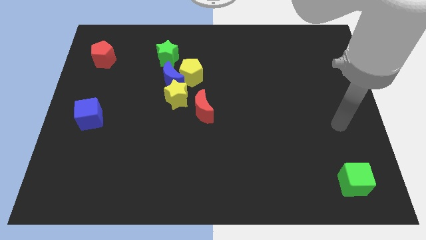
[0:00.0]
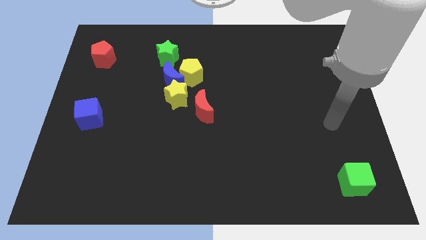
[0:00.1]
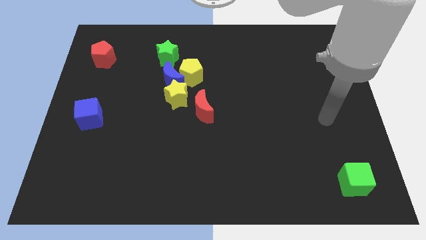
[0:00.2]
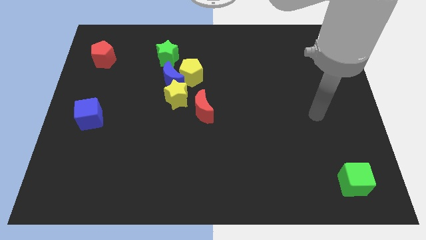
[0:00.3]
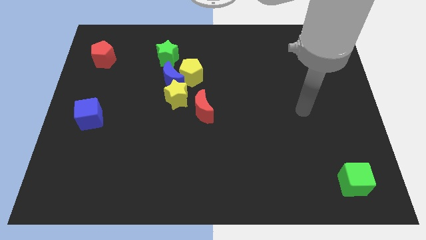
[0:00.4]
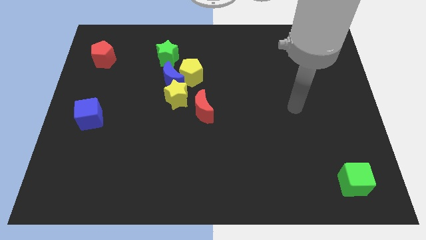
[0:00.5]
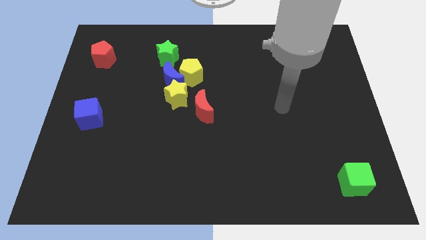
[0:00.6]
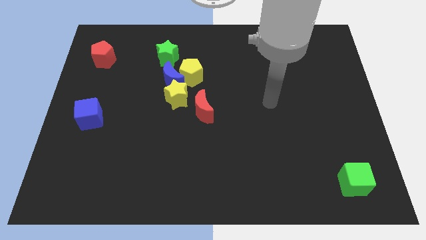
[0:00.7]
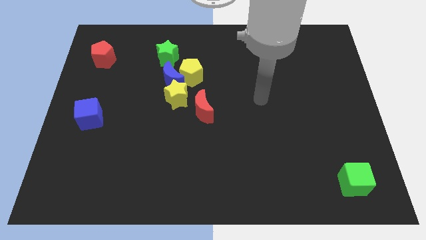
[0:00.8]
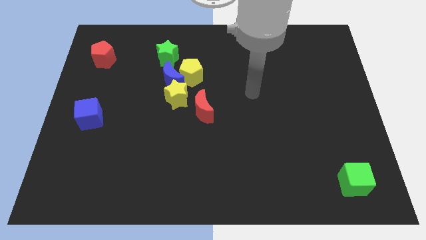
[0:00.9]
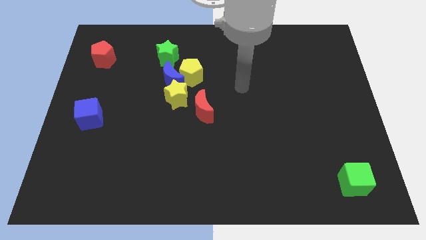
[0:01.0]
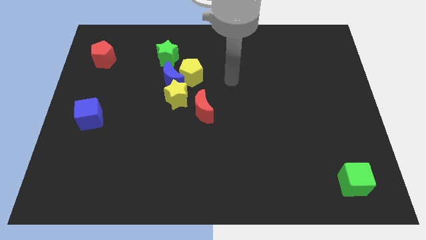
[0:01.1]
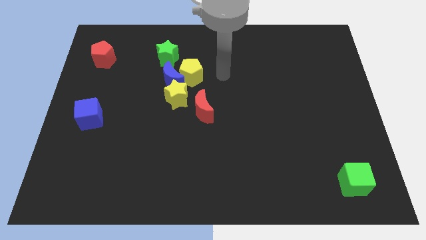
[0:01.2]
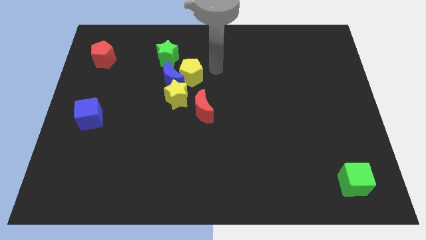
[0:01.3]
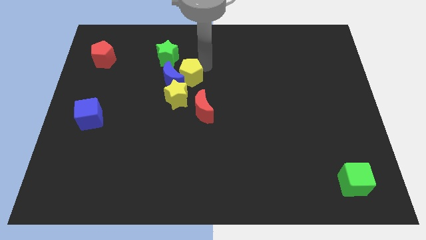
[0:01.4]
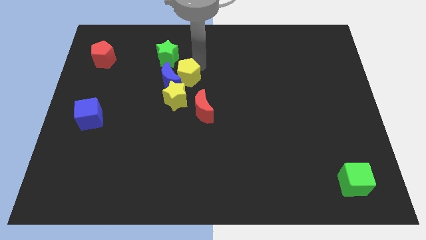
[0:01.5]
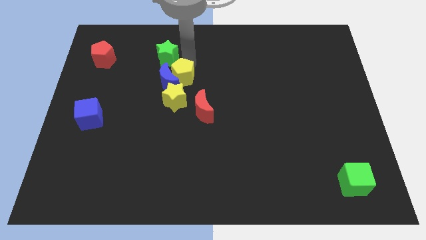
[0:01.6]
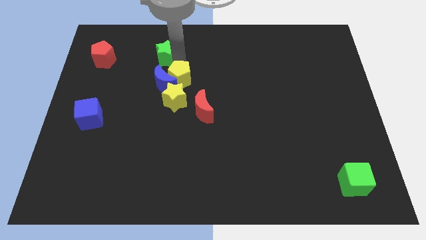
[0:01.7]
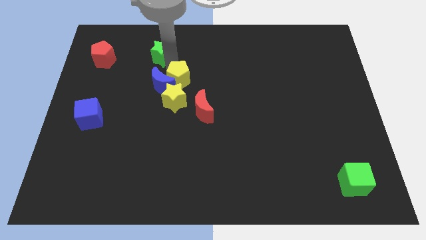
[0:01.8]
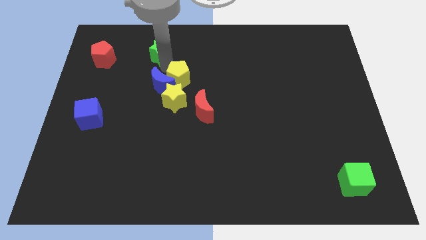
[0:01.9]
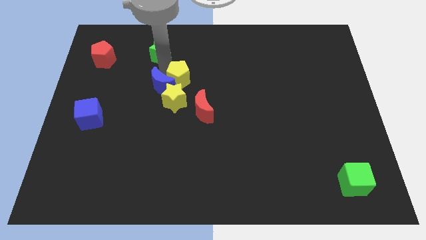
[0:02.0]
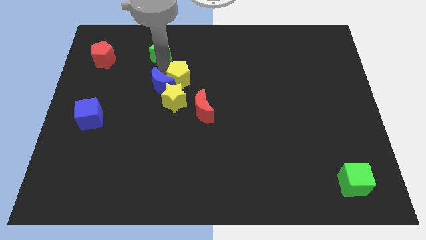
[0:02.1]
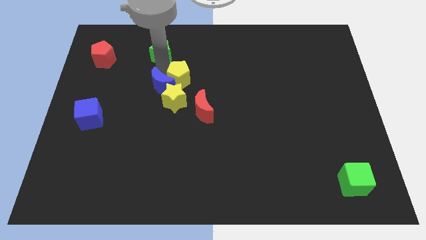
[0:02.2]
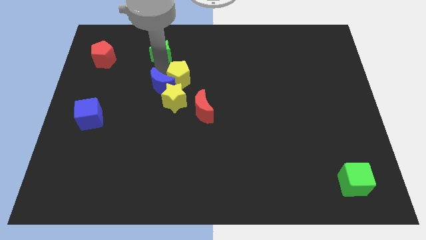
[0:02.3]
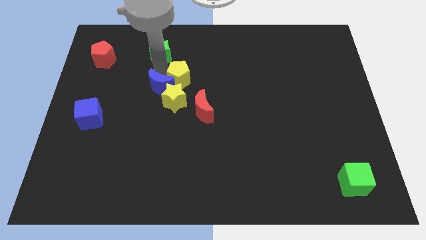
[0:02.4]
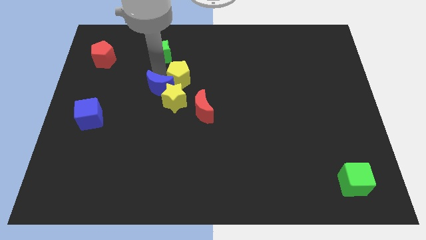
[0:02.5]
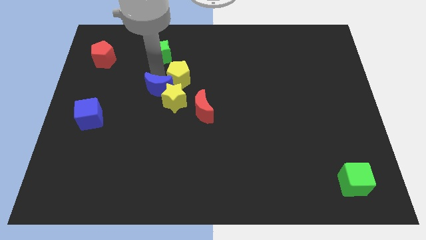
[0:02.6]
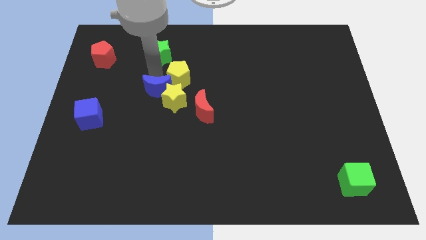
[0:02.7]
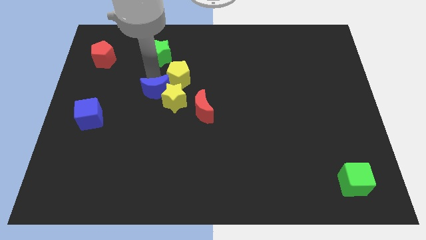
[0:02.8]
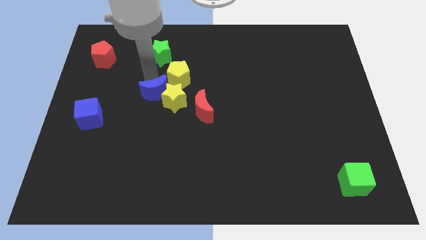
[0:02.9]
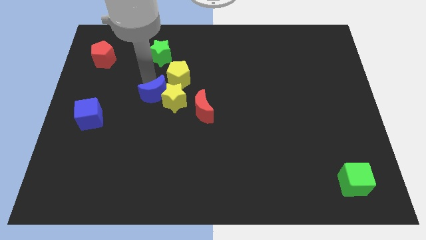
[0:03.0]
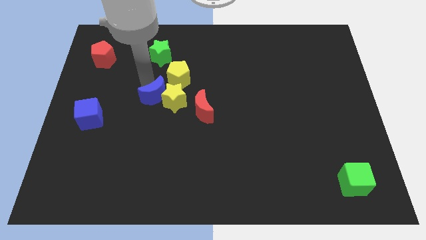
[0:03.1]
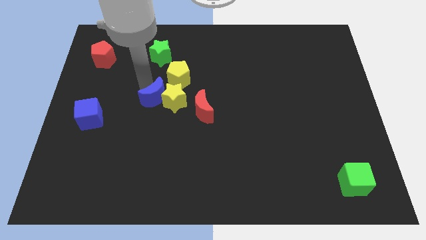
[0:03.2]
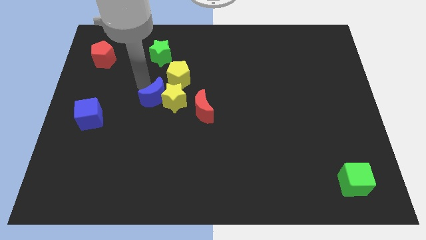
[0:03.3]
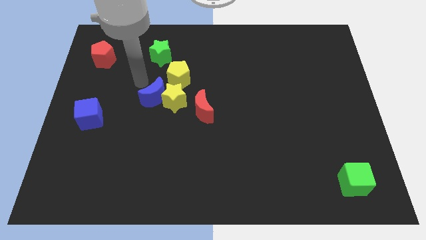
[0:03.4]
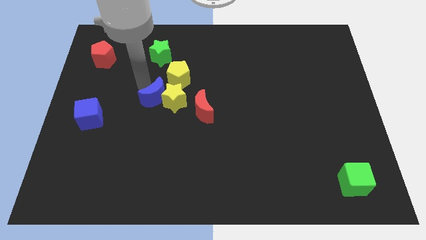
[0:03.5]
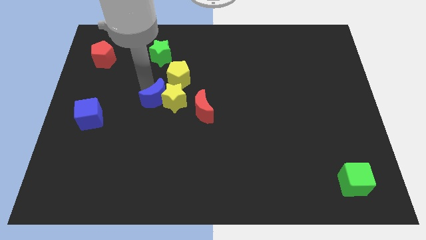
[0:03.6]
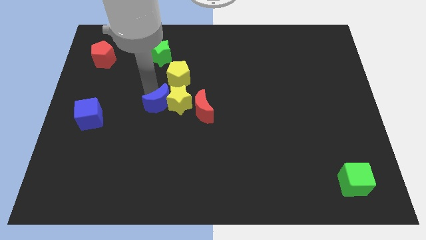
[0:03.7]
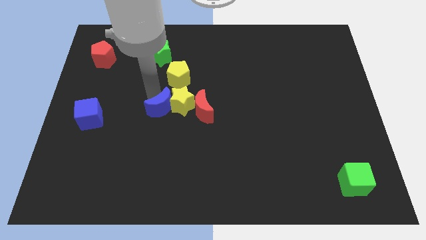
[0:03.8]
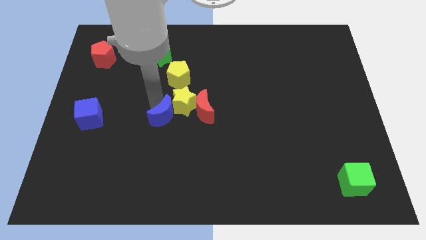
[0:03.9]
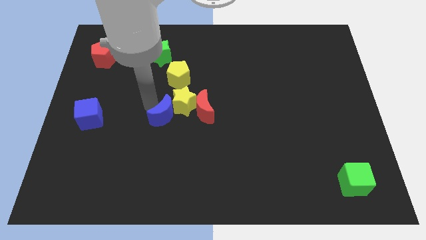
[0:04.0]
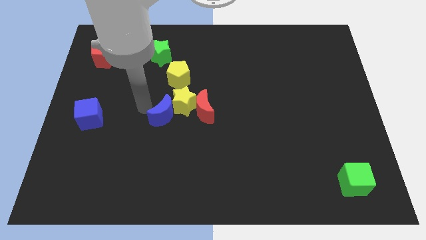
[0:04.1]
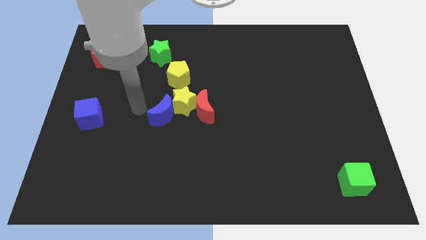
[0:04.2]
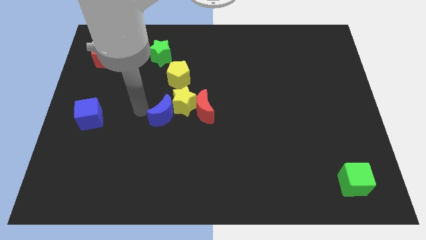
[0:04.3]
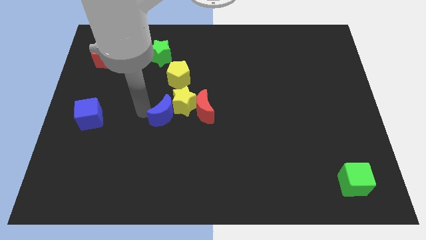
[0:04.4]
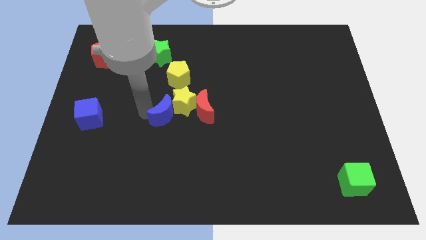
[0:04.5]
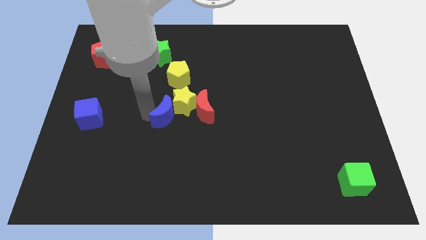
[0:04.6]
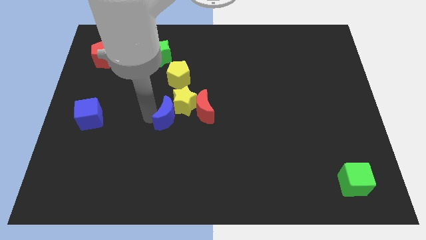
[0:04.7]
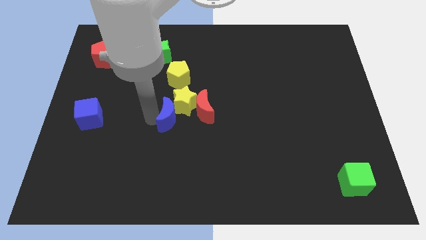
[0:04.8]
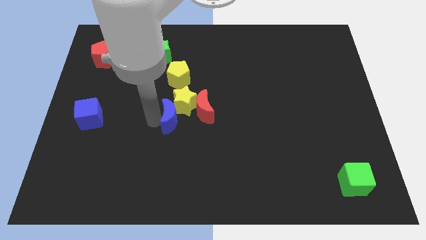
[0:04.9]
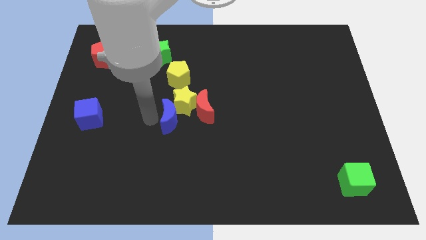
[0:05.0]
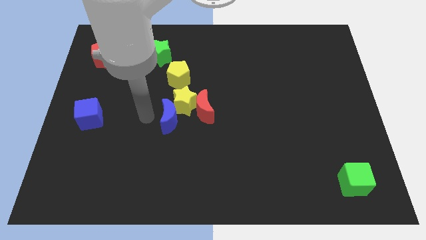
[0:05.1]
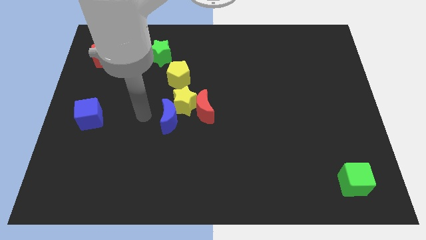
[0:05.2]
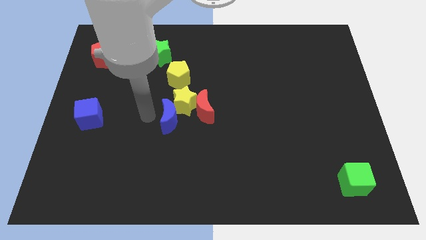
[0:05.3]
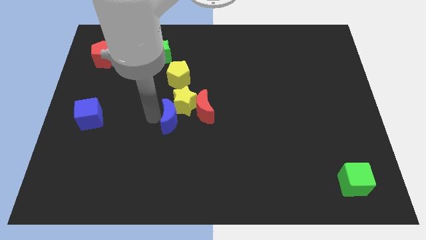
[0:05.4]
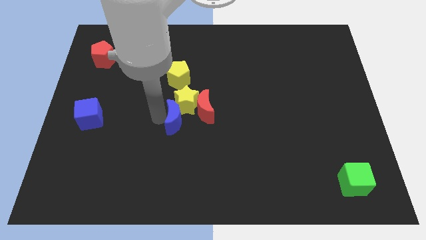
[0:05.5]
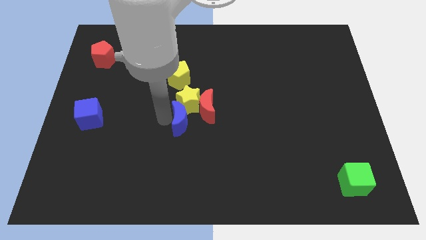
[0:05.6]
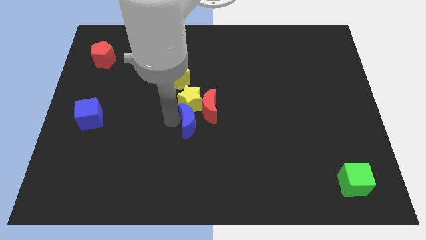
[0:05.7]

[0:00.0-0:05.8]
move the blue moon to the bottom right of the yellow star

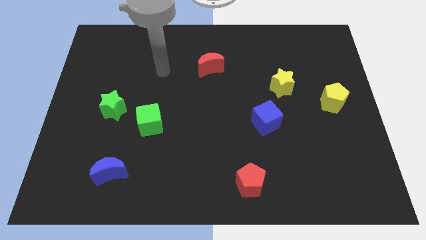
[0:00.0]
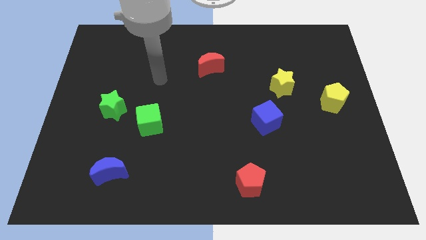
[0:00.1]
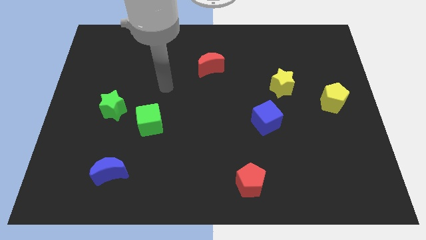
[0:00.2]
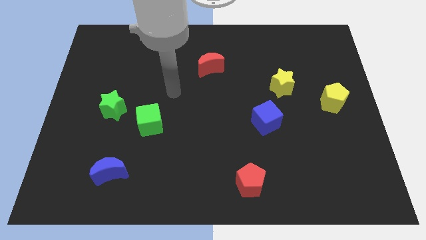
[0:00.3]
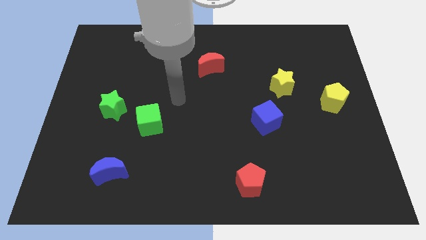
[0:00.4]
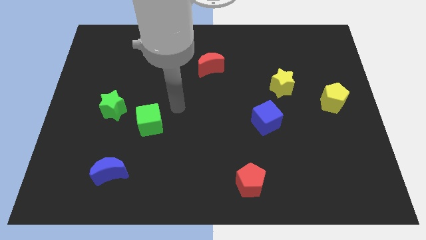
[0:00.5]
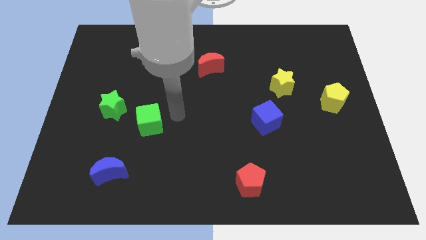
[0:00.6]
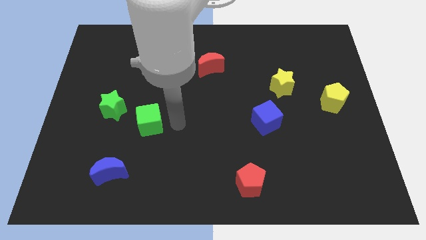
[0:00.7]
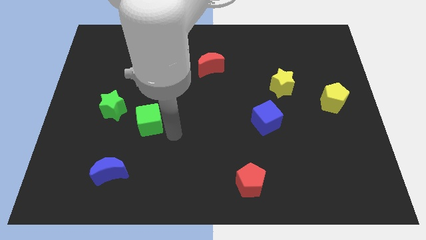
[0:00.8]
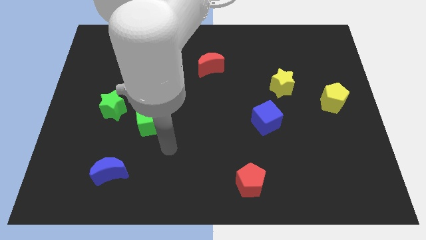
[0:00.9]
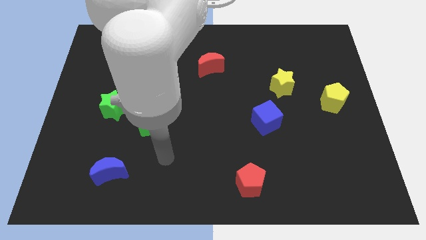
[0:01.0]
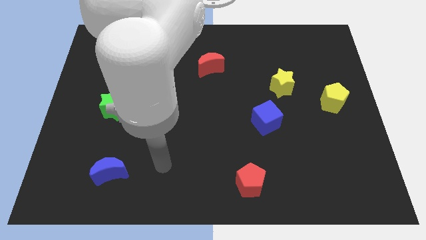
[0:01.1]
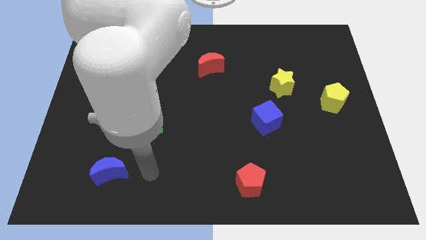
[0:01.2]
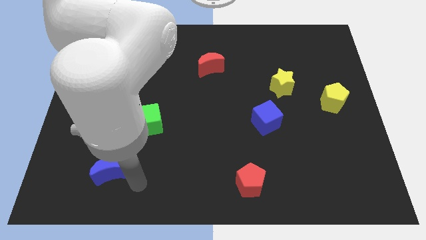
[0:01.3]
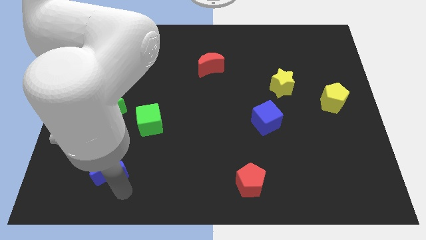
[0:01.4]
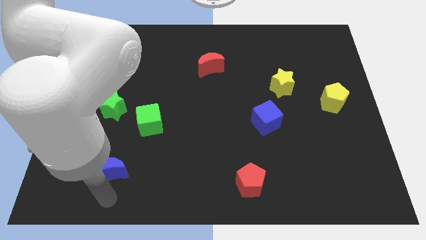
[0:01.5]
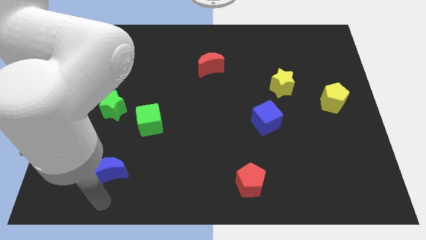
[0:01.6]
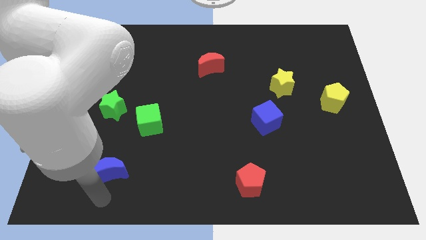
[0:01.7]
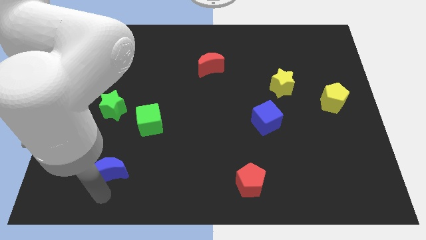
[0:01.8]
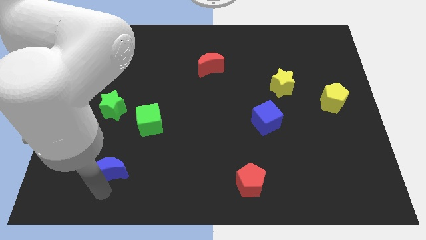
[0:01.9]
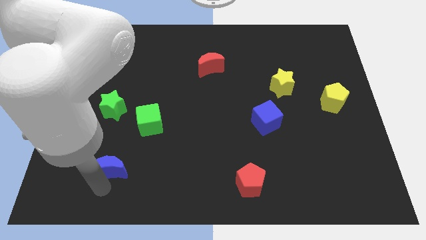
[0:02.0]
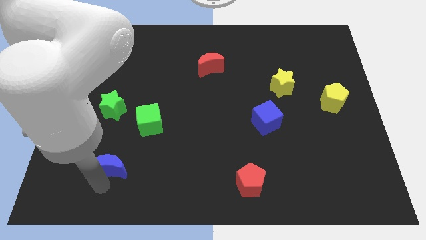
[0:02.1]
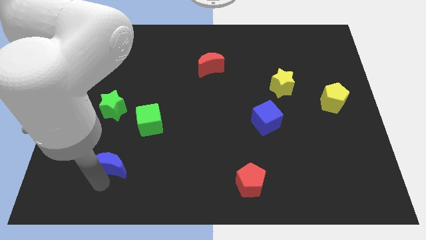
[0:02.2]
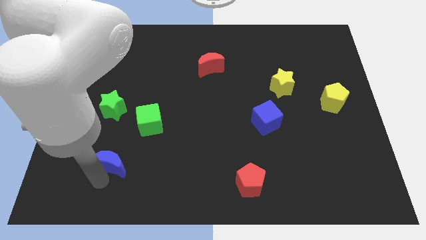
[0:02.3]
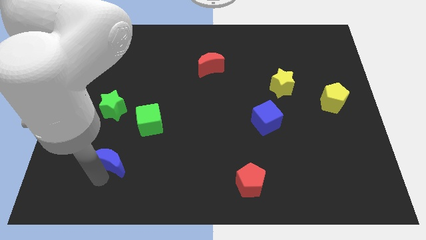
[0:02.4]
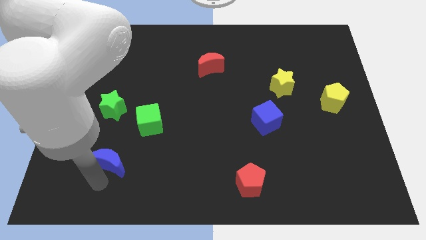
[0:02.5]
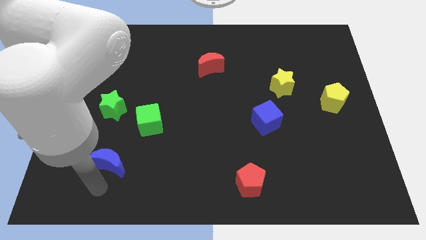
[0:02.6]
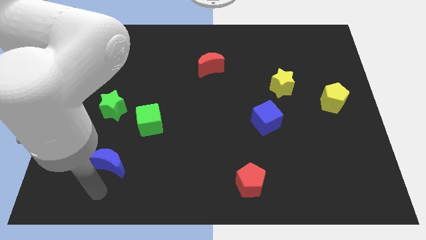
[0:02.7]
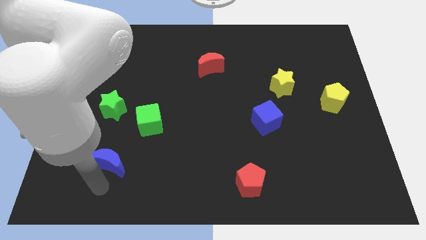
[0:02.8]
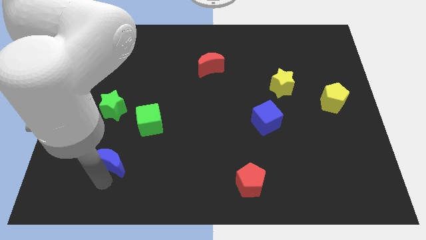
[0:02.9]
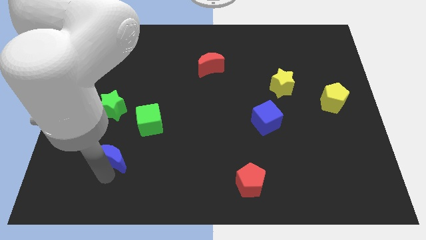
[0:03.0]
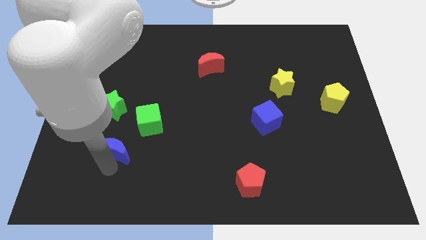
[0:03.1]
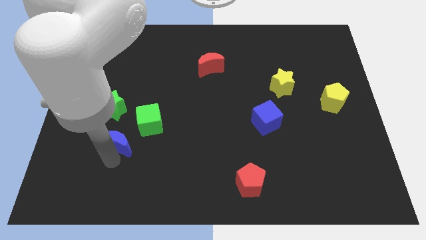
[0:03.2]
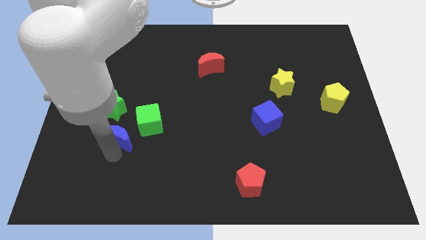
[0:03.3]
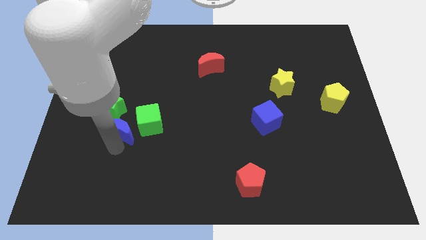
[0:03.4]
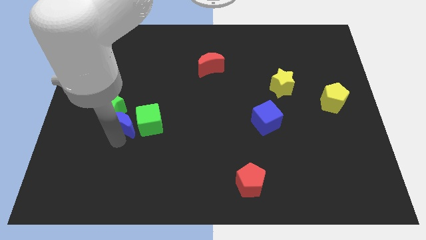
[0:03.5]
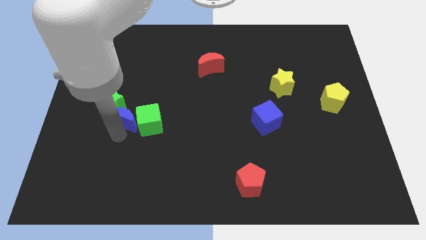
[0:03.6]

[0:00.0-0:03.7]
slide the blue moon to the right side of the green star
